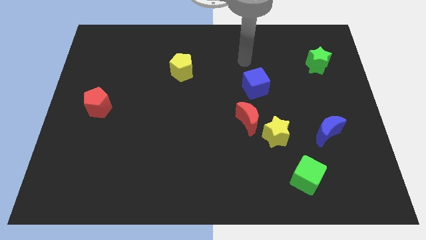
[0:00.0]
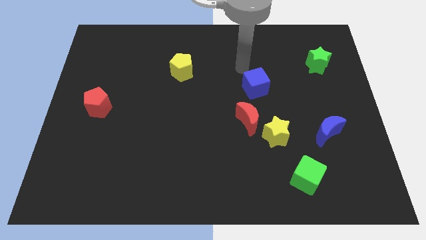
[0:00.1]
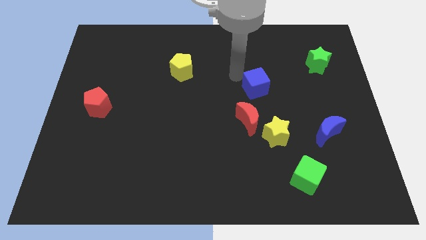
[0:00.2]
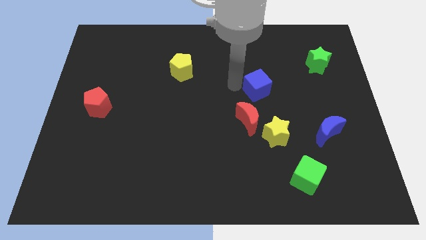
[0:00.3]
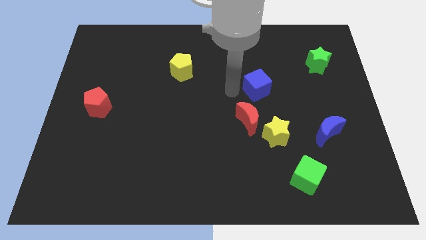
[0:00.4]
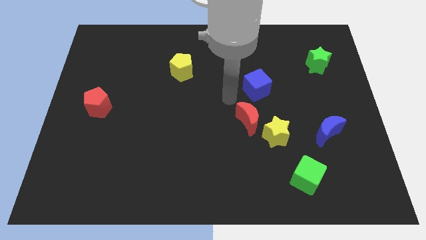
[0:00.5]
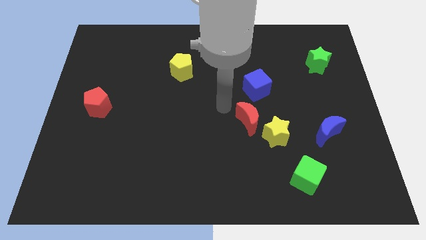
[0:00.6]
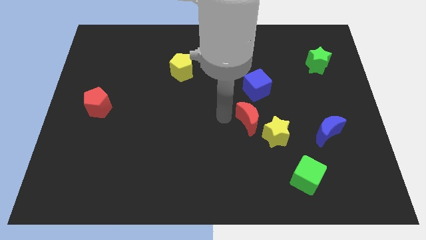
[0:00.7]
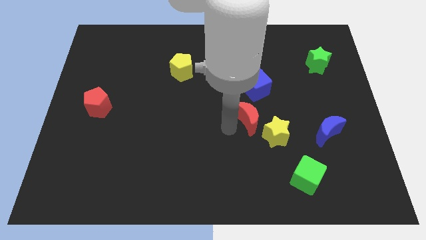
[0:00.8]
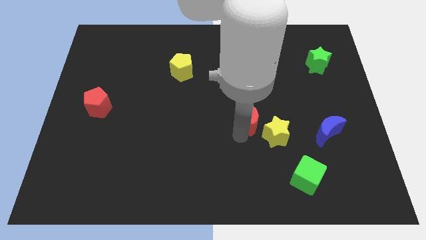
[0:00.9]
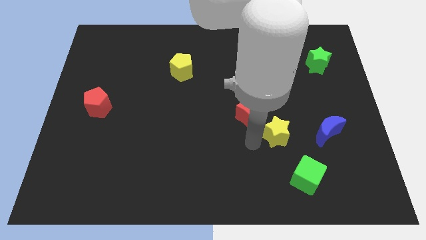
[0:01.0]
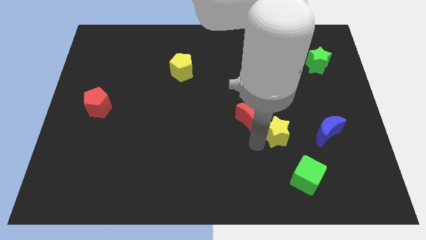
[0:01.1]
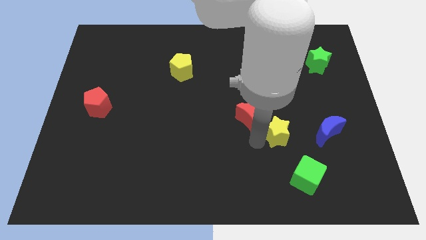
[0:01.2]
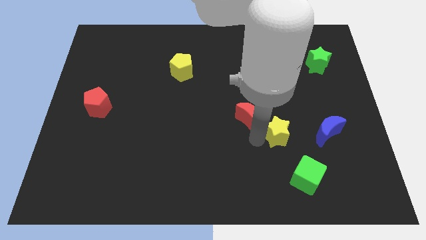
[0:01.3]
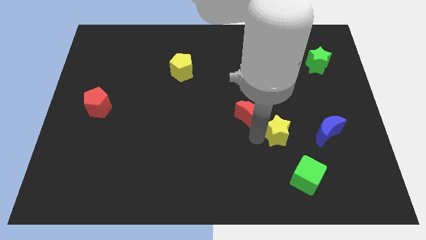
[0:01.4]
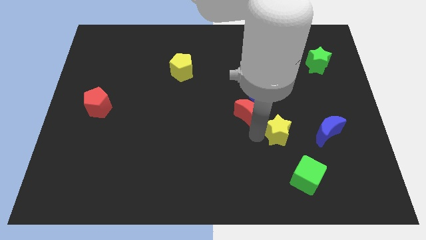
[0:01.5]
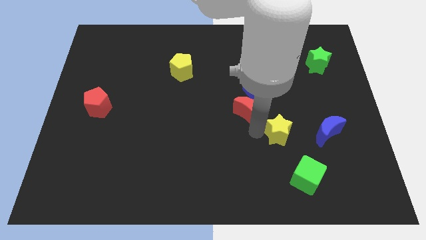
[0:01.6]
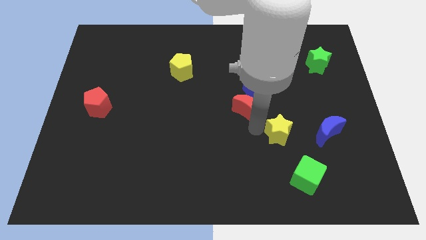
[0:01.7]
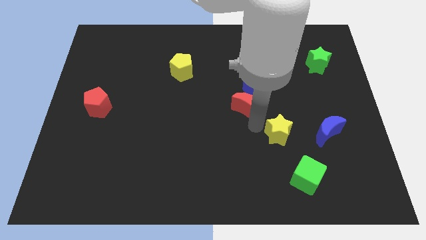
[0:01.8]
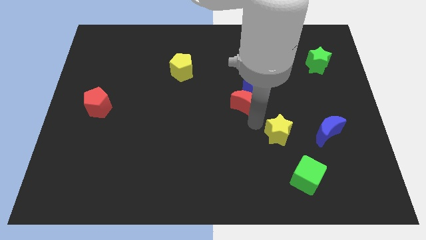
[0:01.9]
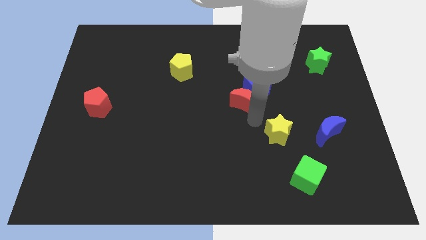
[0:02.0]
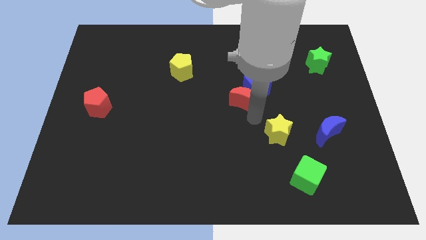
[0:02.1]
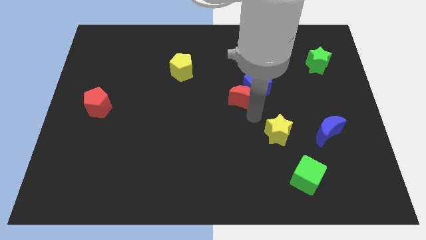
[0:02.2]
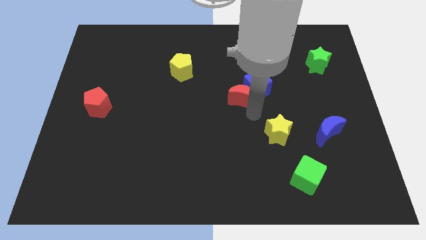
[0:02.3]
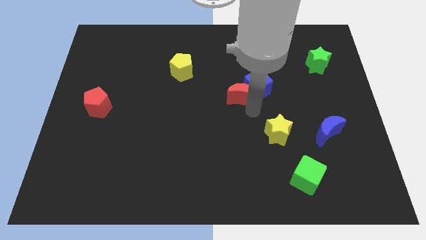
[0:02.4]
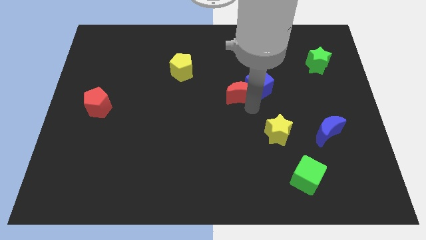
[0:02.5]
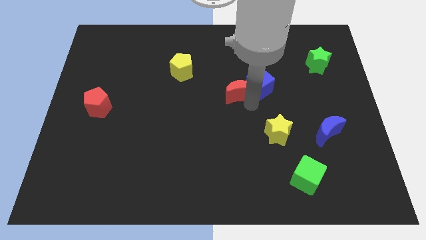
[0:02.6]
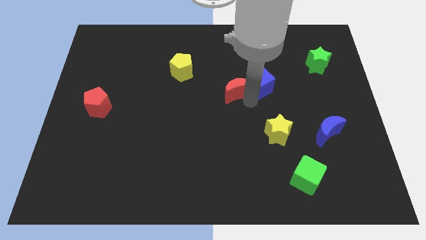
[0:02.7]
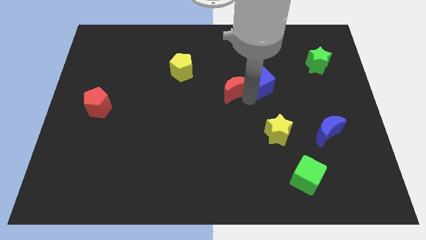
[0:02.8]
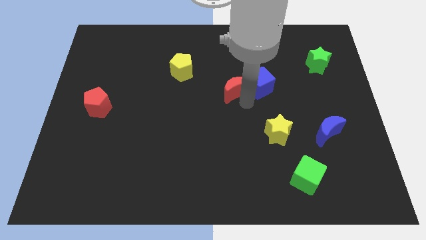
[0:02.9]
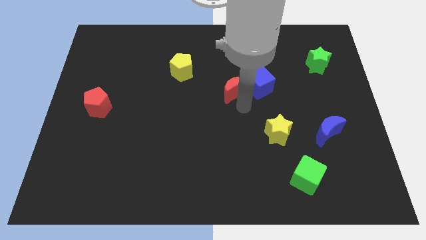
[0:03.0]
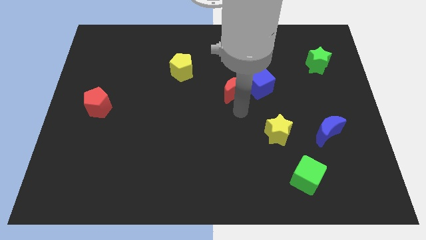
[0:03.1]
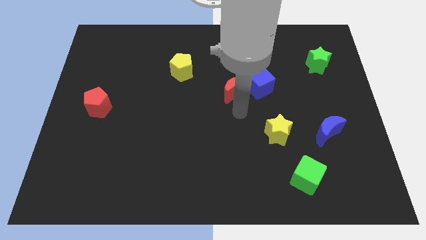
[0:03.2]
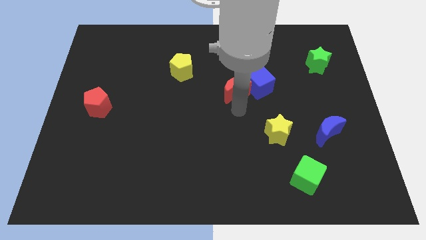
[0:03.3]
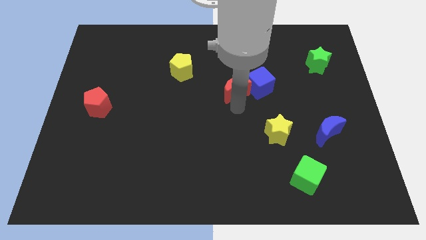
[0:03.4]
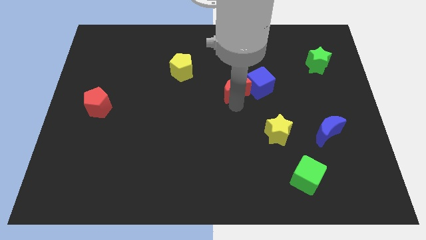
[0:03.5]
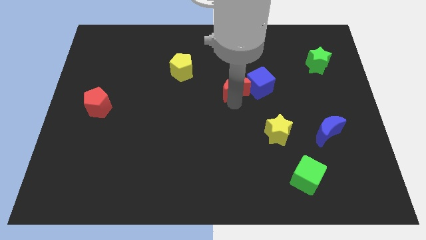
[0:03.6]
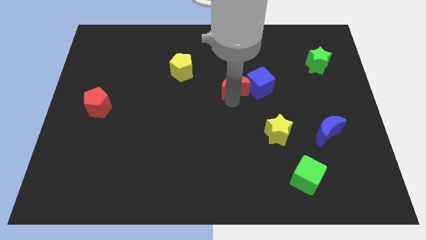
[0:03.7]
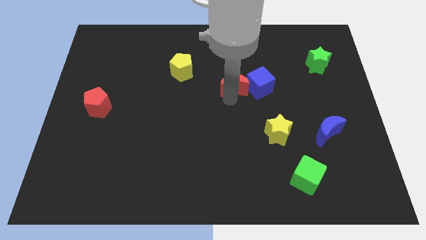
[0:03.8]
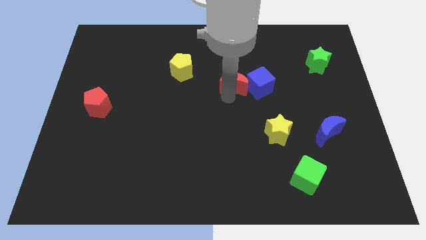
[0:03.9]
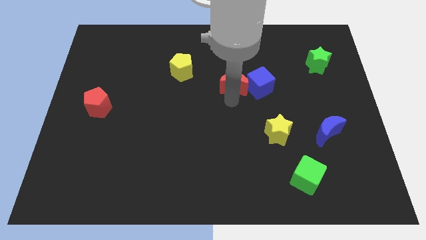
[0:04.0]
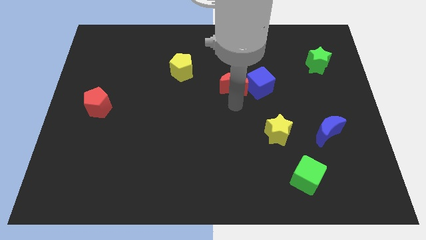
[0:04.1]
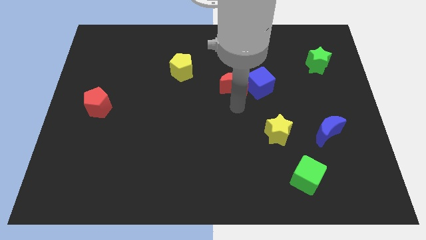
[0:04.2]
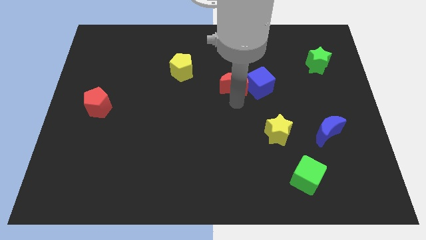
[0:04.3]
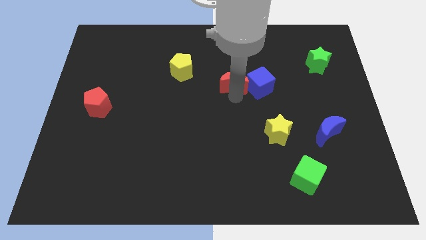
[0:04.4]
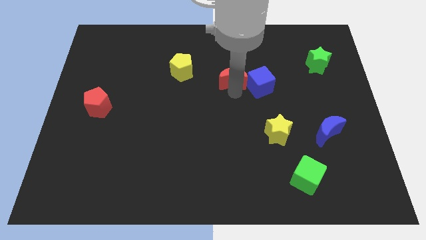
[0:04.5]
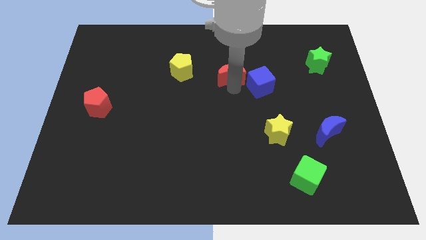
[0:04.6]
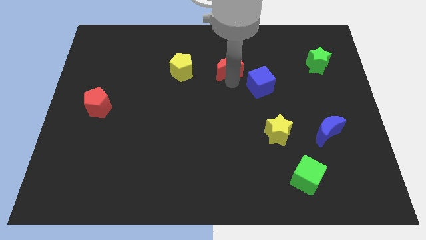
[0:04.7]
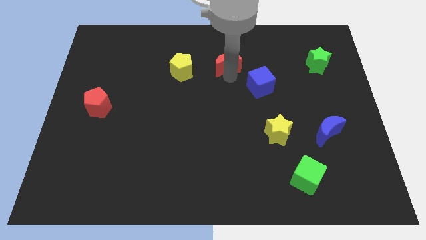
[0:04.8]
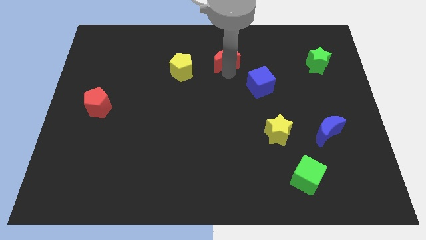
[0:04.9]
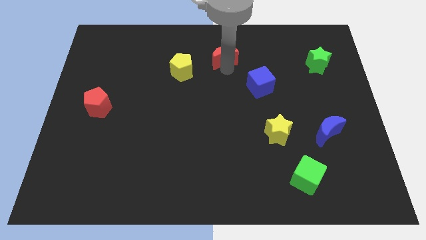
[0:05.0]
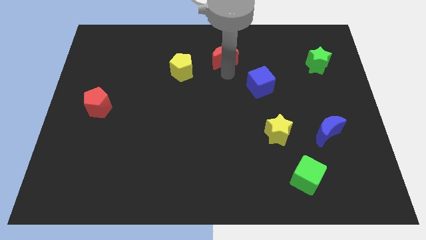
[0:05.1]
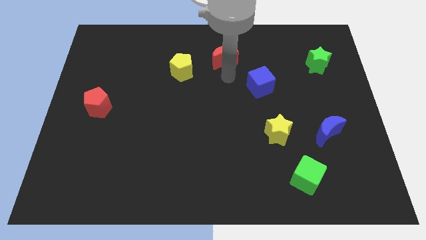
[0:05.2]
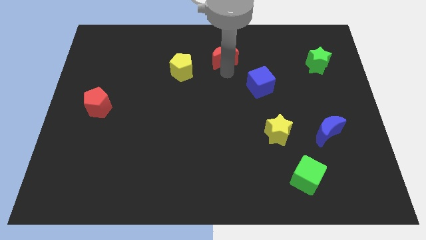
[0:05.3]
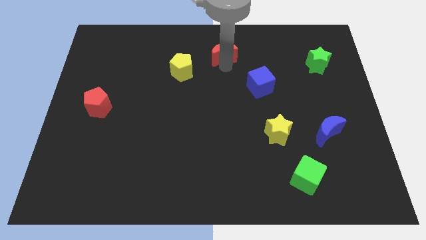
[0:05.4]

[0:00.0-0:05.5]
slide the red moon to the top

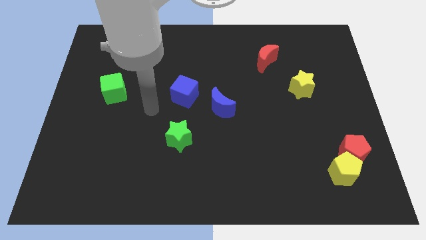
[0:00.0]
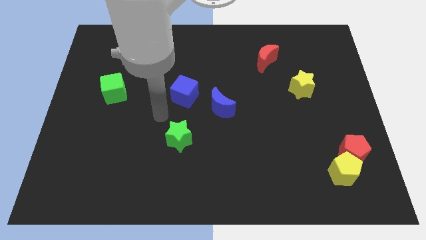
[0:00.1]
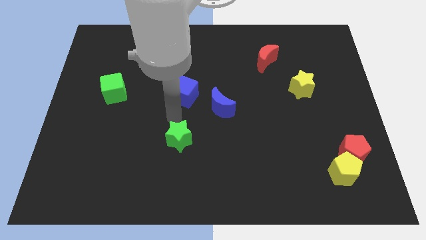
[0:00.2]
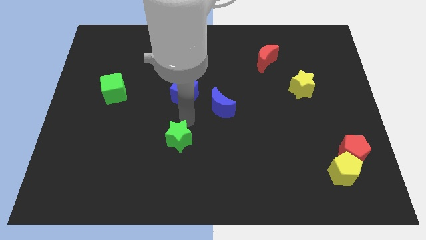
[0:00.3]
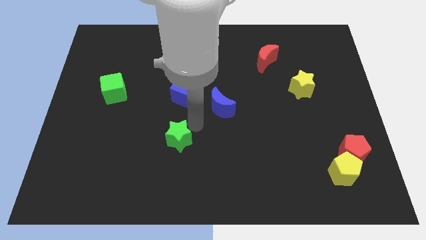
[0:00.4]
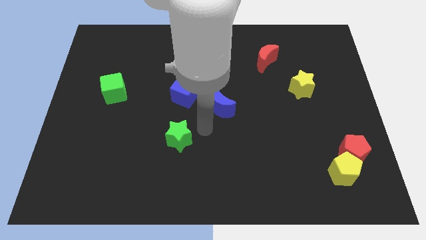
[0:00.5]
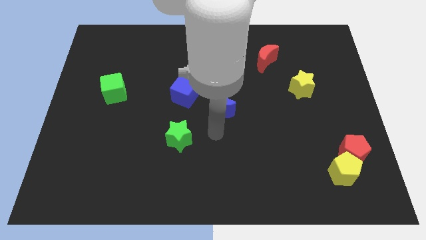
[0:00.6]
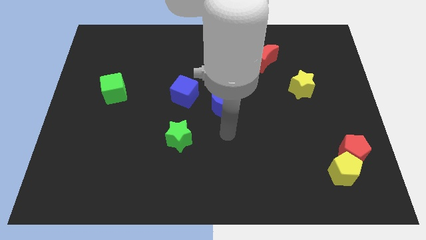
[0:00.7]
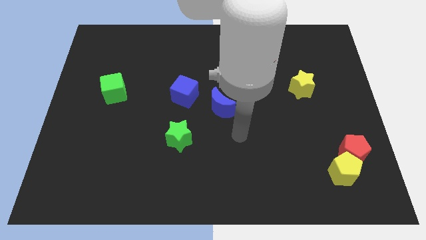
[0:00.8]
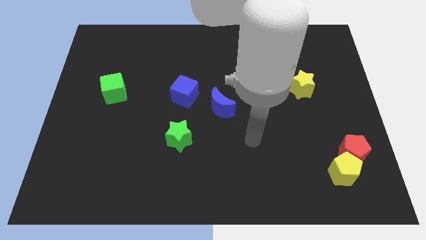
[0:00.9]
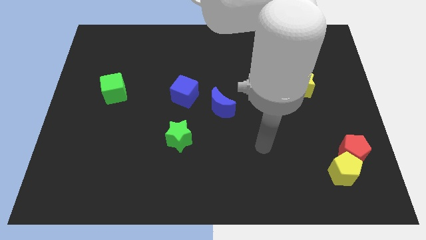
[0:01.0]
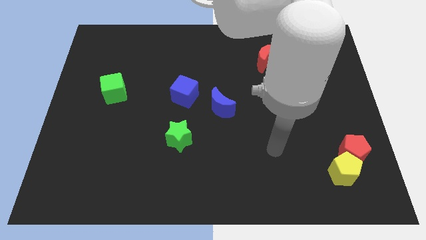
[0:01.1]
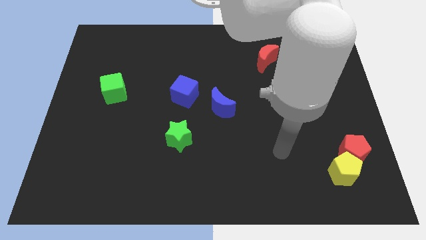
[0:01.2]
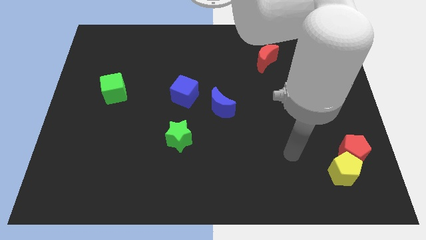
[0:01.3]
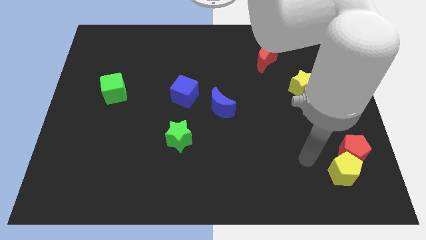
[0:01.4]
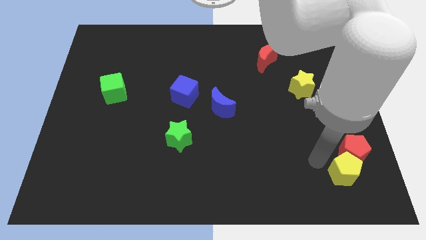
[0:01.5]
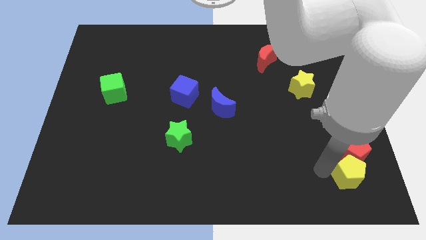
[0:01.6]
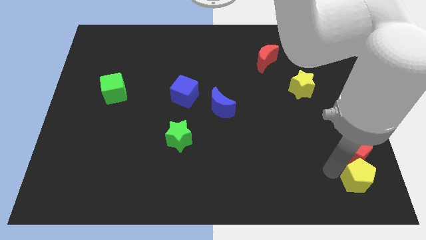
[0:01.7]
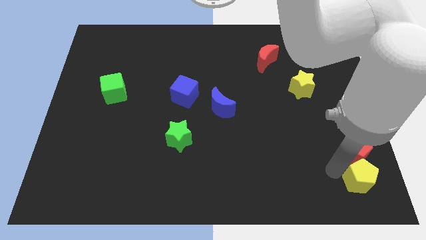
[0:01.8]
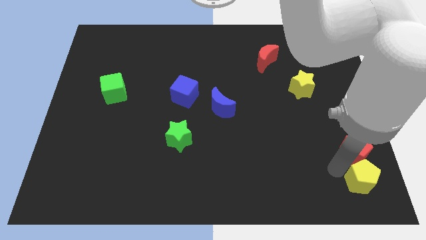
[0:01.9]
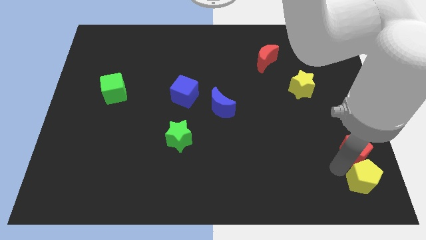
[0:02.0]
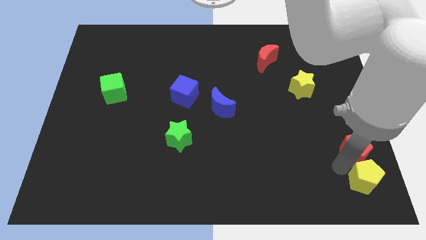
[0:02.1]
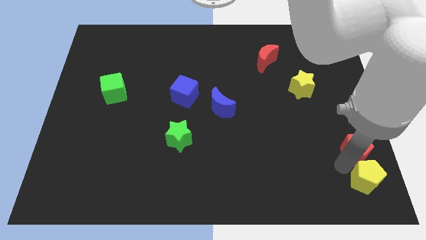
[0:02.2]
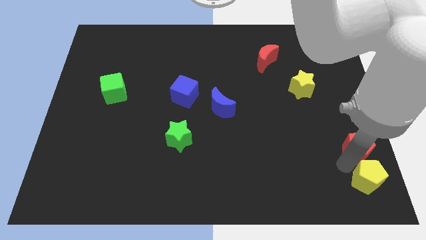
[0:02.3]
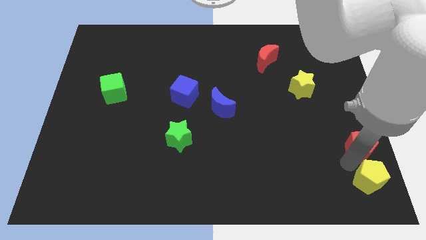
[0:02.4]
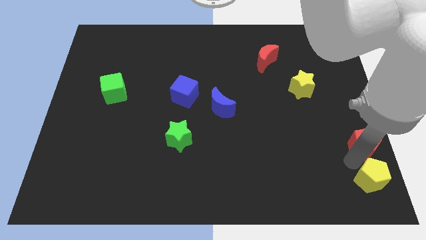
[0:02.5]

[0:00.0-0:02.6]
put the red pentagon to the right side of the board
